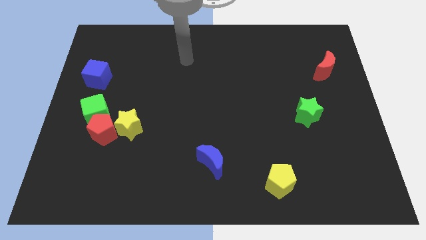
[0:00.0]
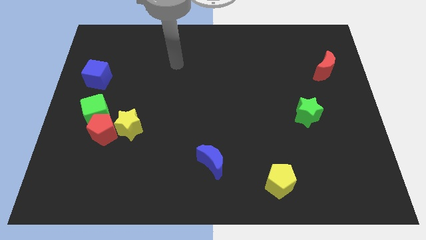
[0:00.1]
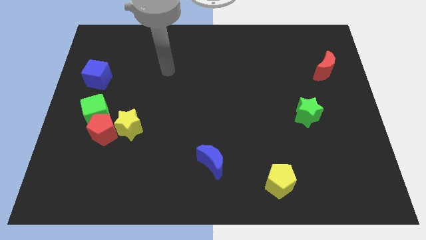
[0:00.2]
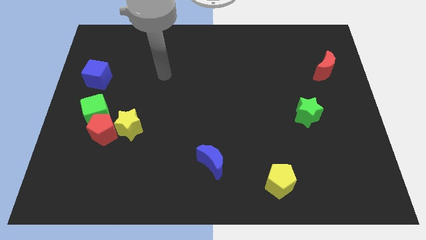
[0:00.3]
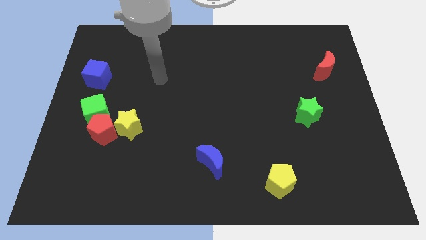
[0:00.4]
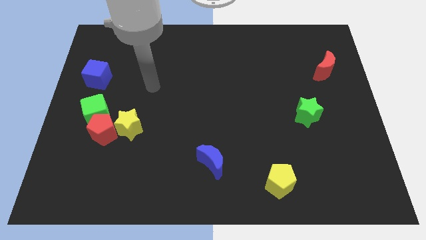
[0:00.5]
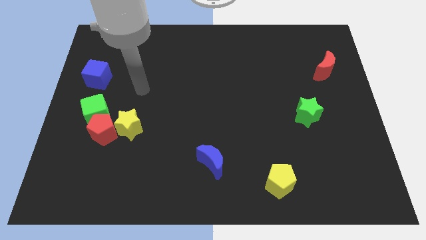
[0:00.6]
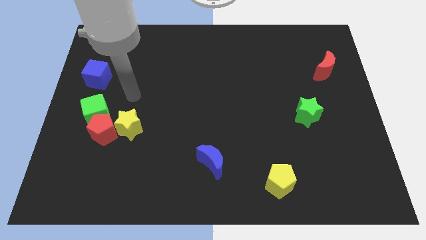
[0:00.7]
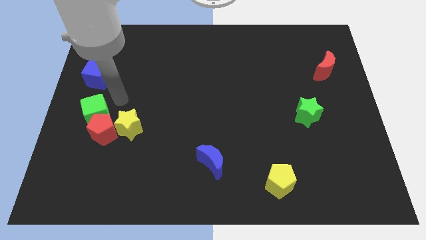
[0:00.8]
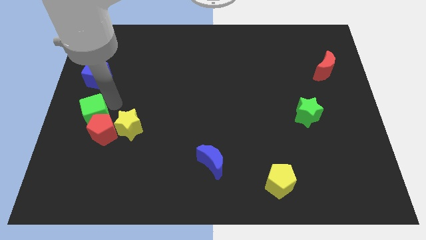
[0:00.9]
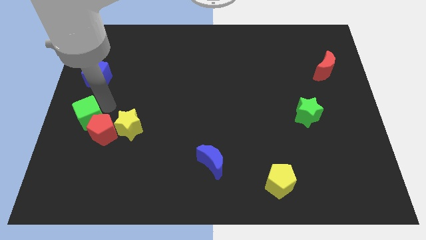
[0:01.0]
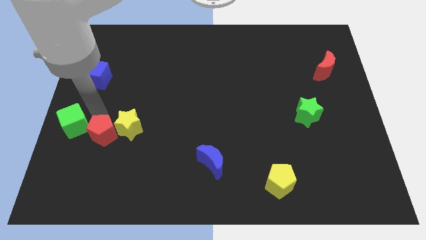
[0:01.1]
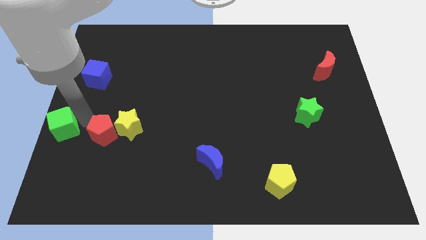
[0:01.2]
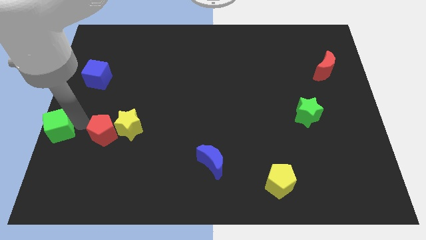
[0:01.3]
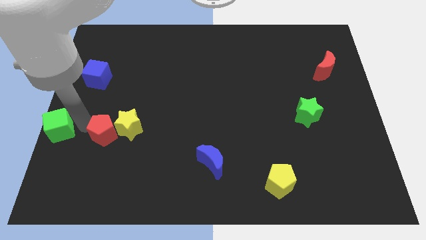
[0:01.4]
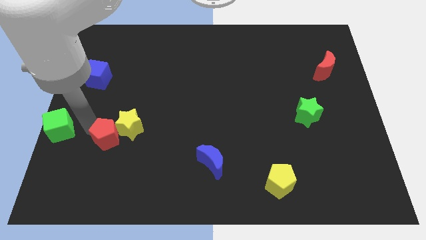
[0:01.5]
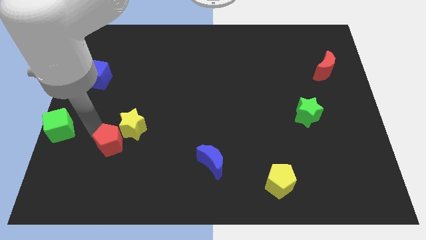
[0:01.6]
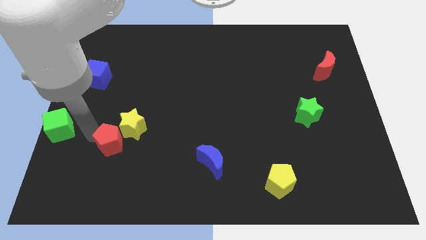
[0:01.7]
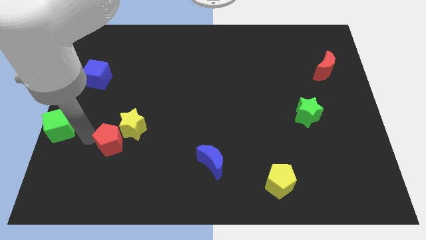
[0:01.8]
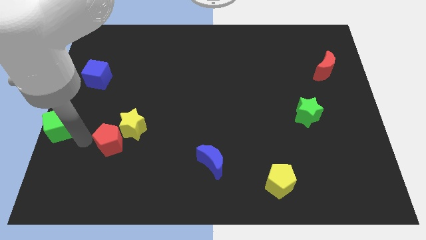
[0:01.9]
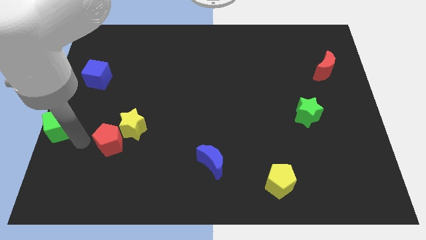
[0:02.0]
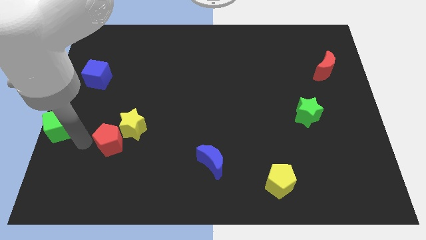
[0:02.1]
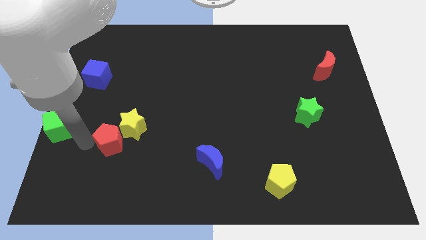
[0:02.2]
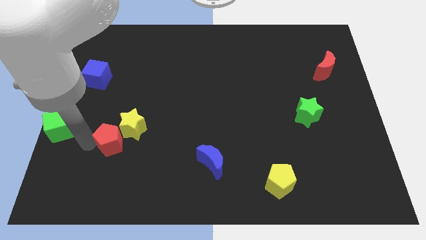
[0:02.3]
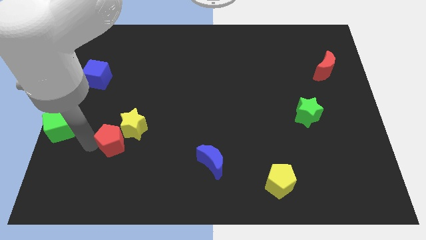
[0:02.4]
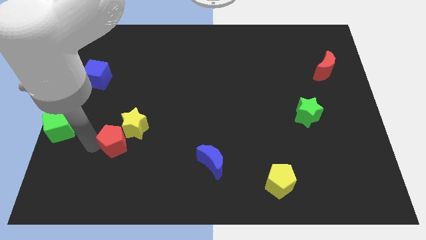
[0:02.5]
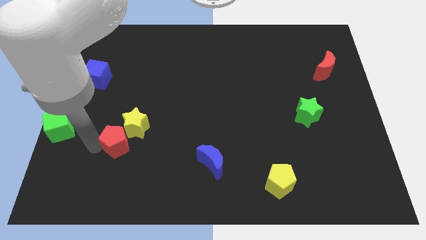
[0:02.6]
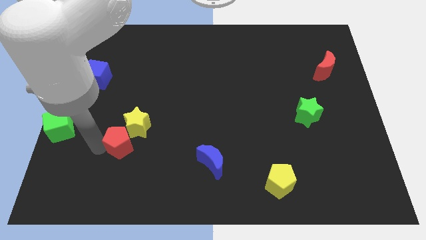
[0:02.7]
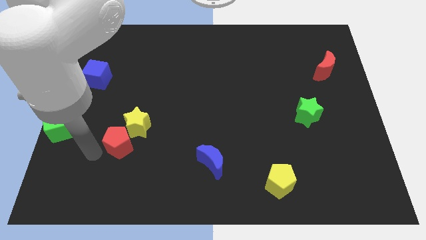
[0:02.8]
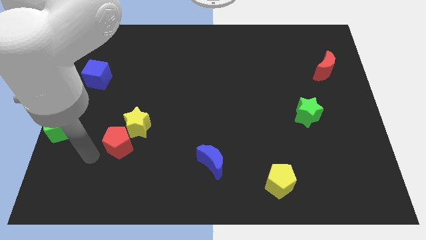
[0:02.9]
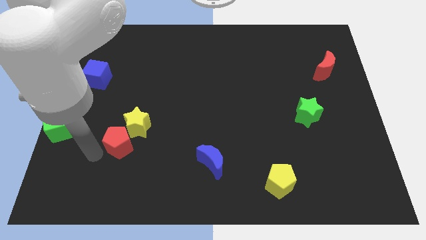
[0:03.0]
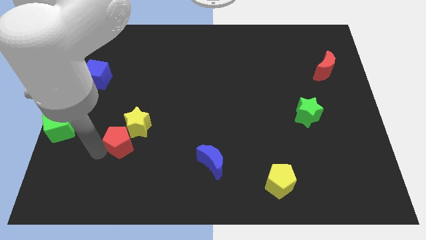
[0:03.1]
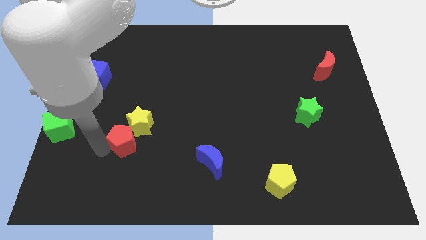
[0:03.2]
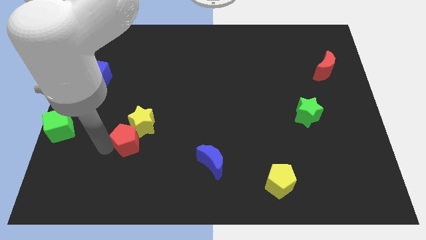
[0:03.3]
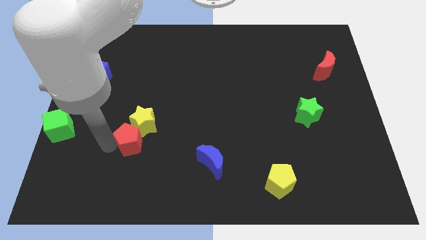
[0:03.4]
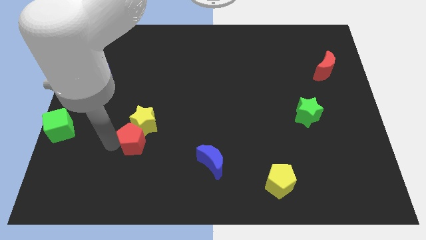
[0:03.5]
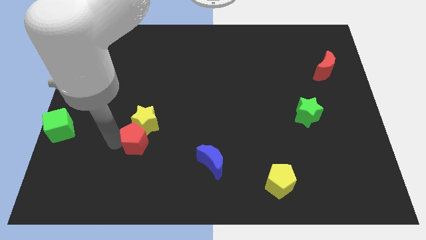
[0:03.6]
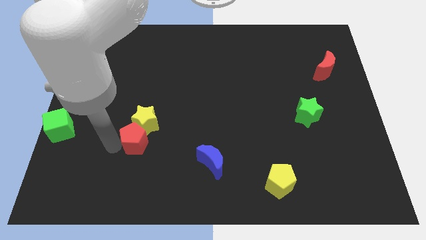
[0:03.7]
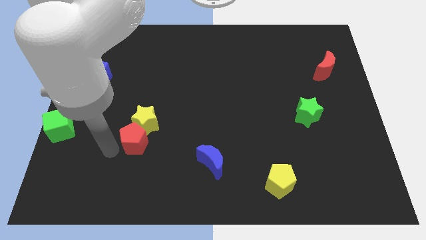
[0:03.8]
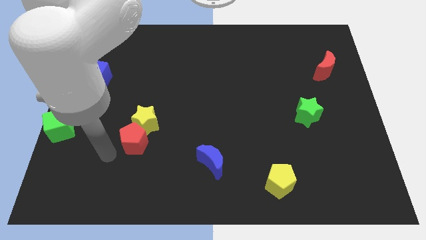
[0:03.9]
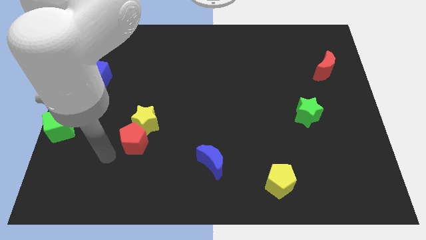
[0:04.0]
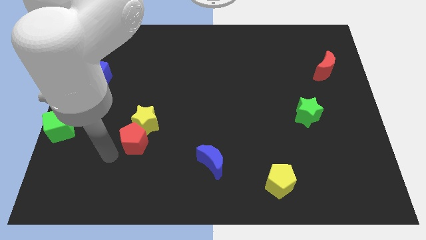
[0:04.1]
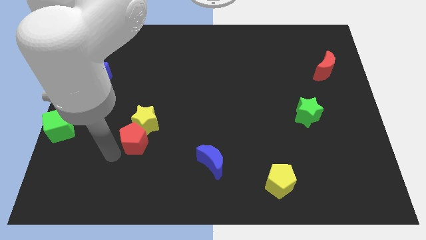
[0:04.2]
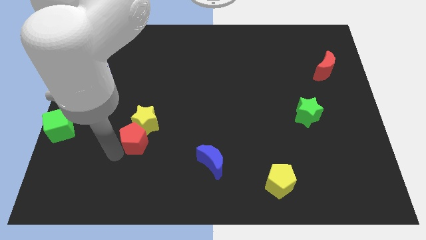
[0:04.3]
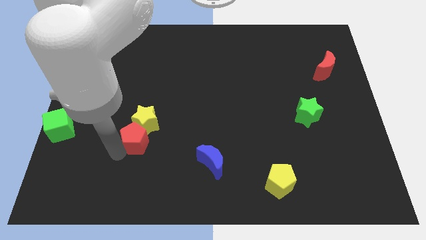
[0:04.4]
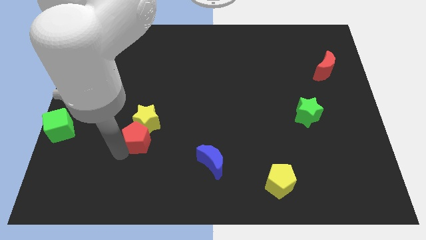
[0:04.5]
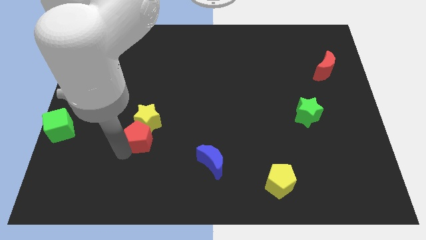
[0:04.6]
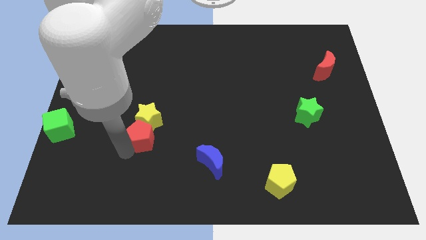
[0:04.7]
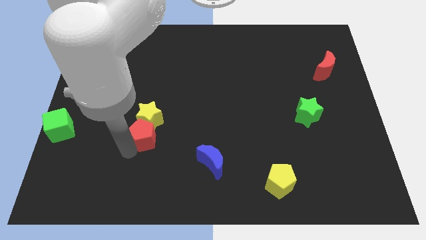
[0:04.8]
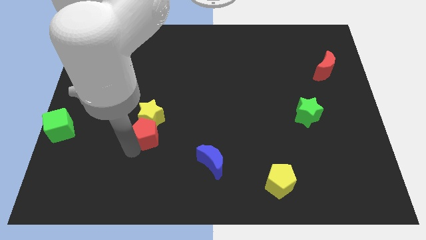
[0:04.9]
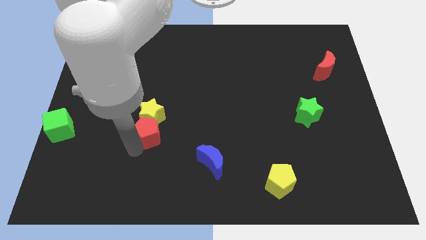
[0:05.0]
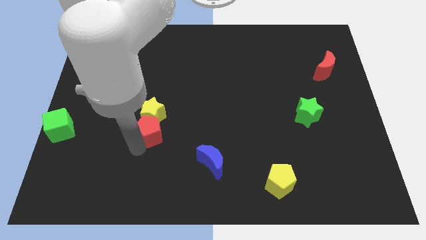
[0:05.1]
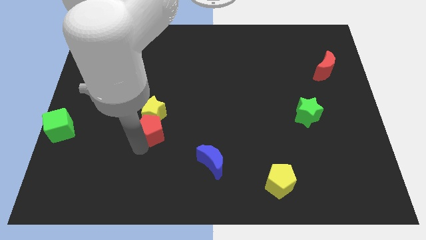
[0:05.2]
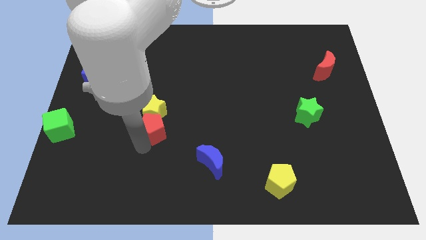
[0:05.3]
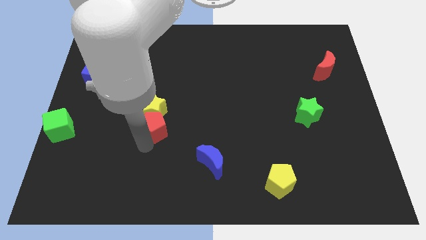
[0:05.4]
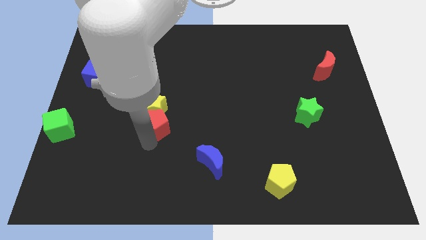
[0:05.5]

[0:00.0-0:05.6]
push the red pentagon a little up and then right

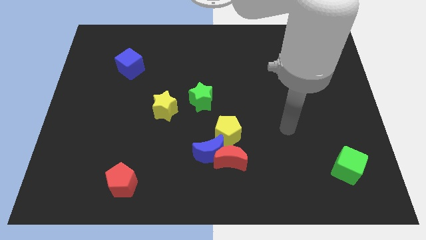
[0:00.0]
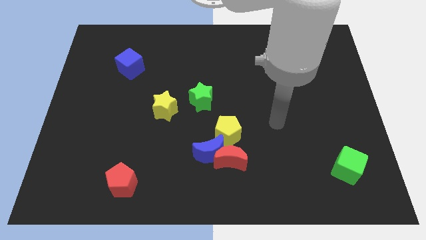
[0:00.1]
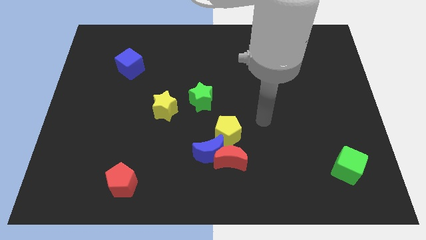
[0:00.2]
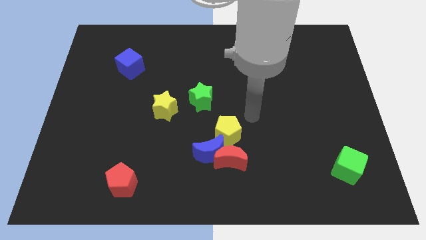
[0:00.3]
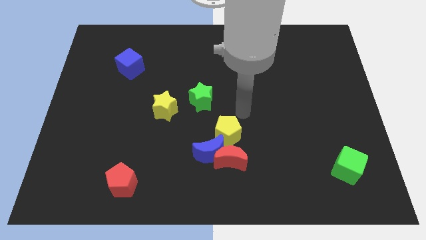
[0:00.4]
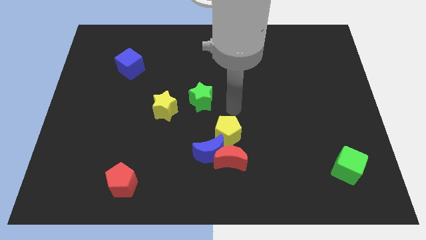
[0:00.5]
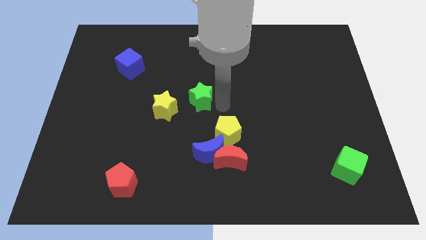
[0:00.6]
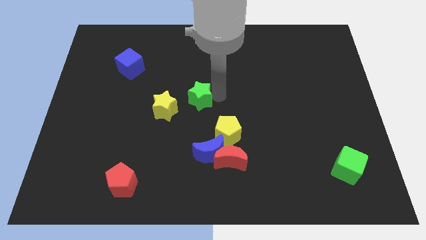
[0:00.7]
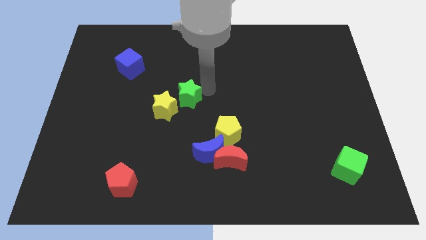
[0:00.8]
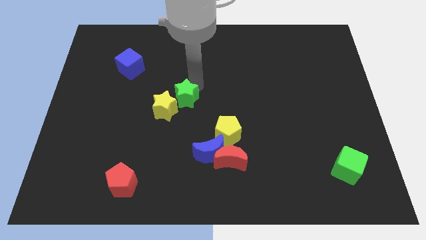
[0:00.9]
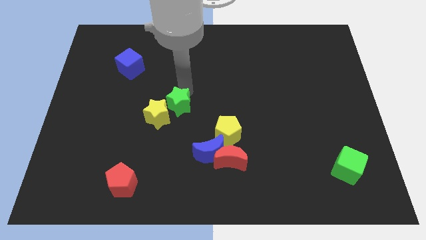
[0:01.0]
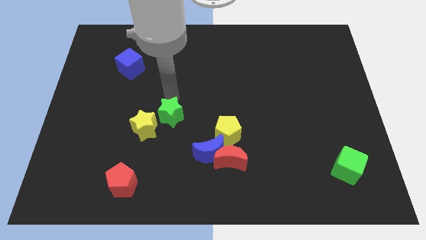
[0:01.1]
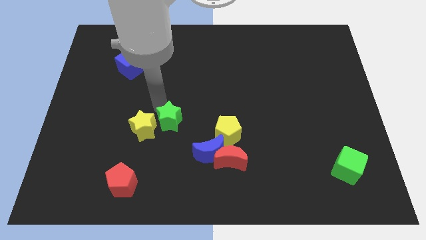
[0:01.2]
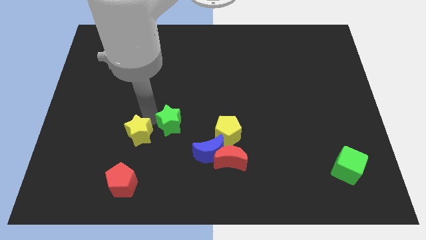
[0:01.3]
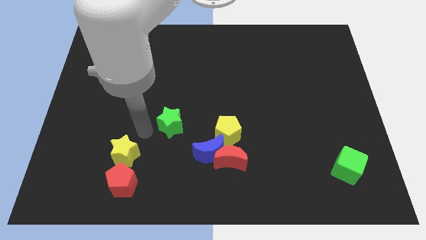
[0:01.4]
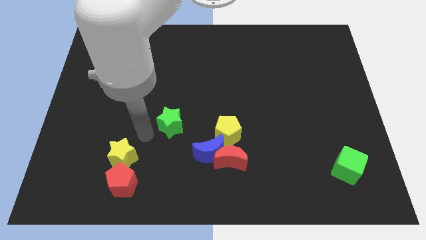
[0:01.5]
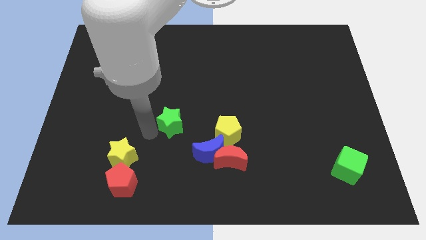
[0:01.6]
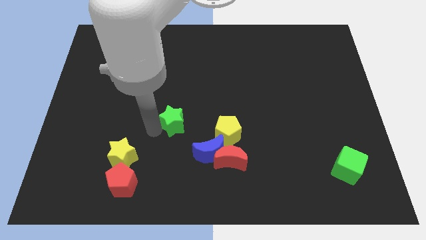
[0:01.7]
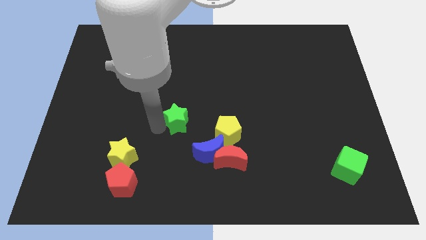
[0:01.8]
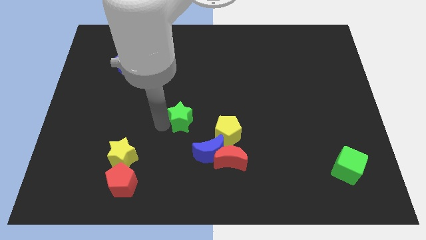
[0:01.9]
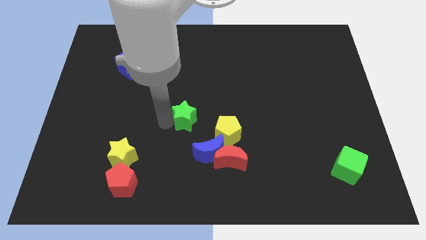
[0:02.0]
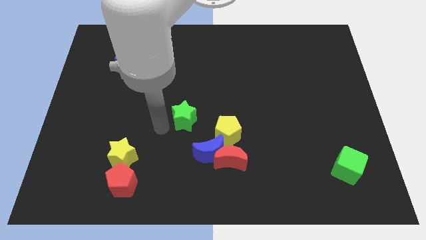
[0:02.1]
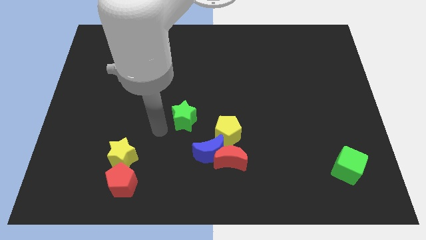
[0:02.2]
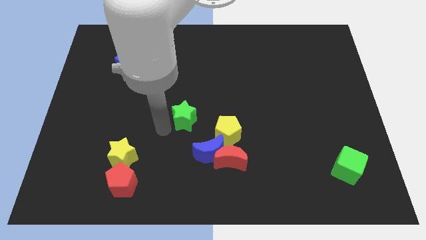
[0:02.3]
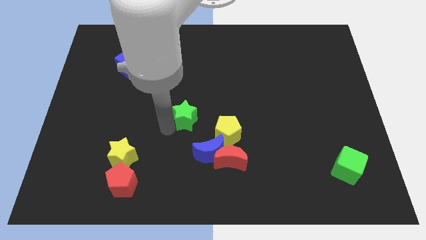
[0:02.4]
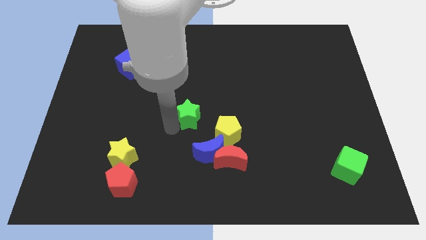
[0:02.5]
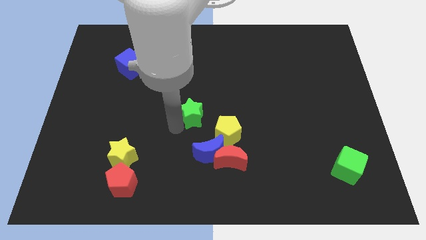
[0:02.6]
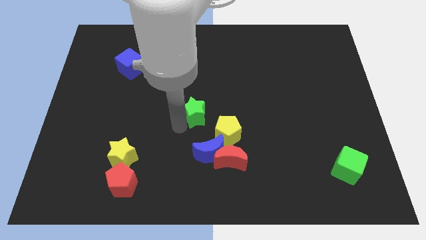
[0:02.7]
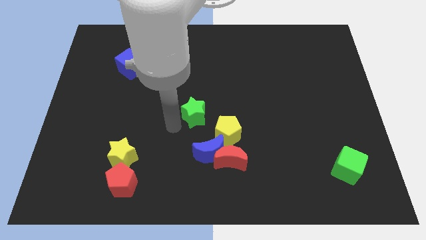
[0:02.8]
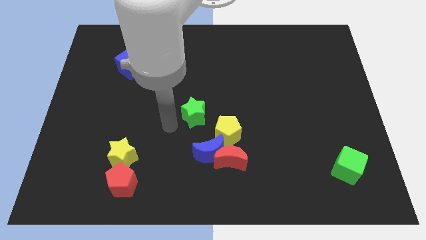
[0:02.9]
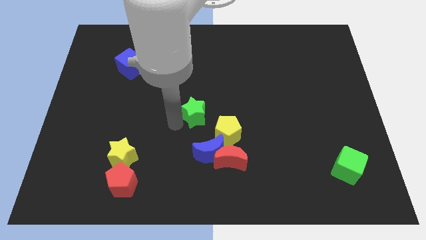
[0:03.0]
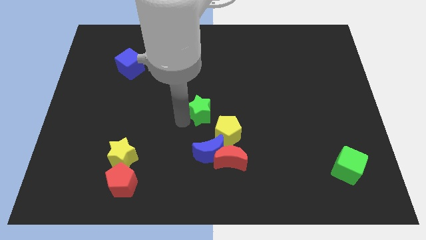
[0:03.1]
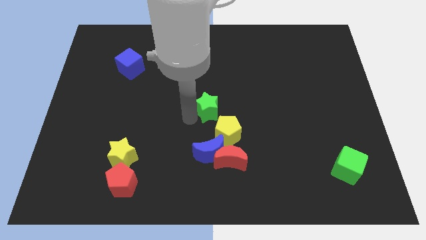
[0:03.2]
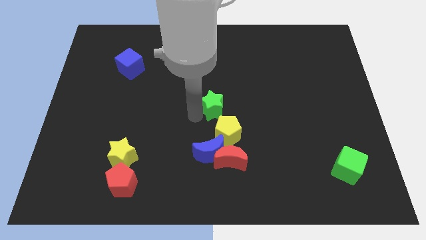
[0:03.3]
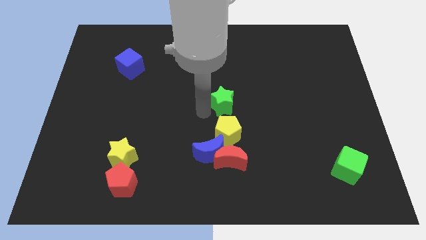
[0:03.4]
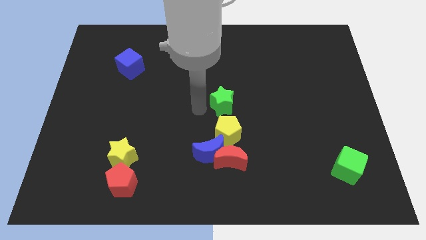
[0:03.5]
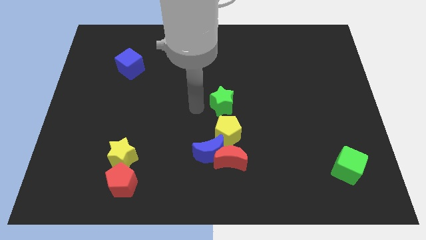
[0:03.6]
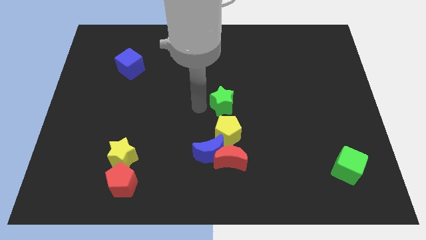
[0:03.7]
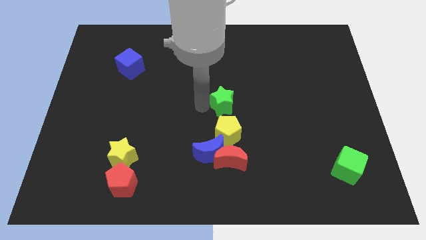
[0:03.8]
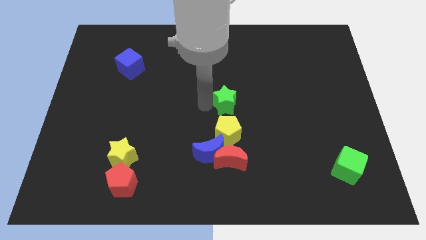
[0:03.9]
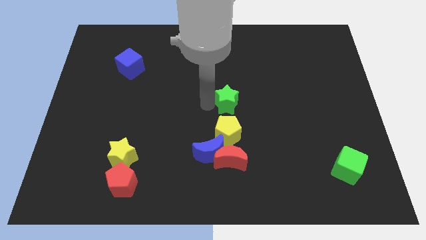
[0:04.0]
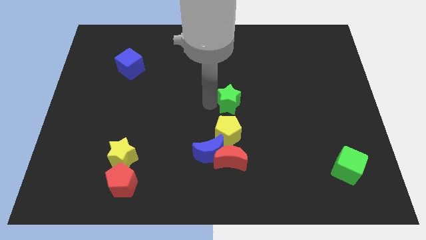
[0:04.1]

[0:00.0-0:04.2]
move the green star right somewhat
